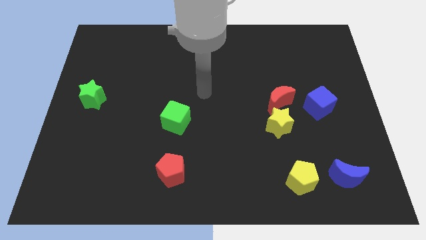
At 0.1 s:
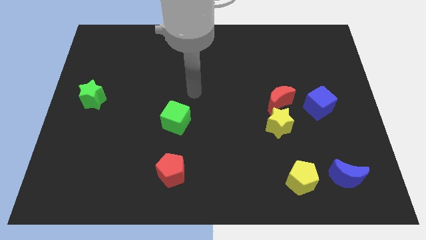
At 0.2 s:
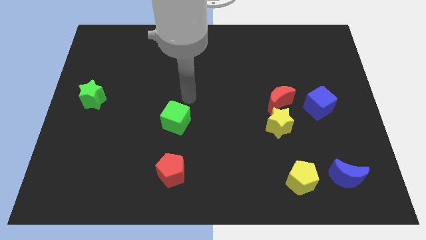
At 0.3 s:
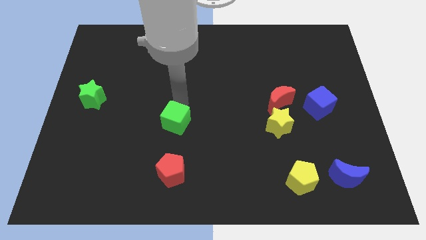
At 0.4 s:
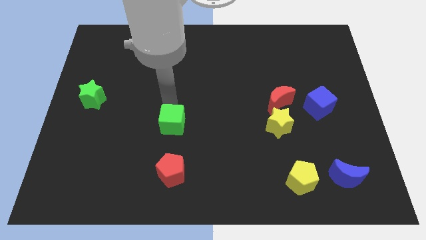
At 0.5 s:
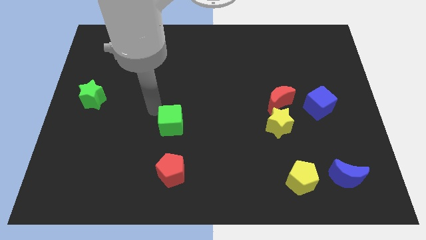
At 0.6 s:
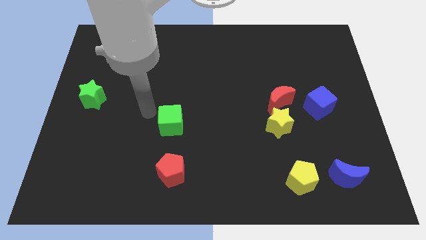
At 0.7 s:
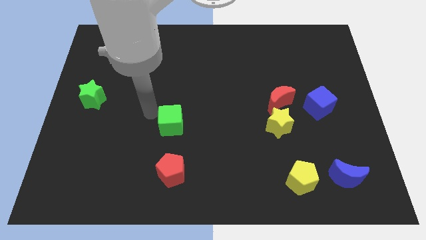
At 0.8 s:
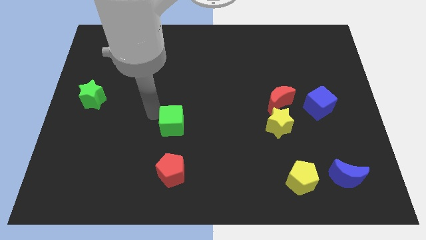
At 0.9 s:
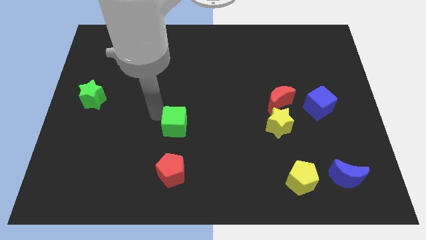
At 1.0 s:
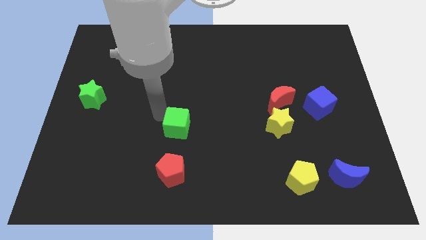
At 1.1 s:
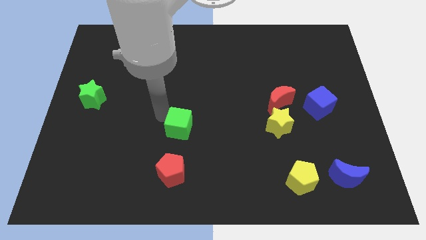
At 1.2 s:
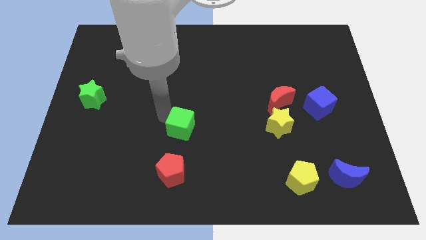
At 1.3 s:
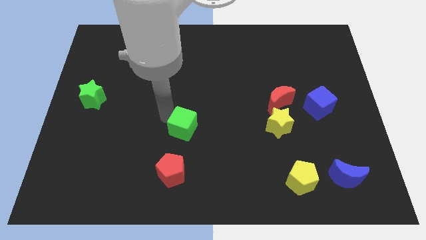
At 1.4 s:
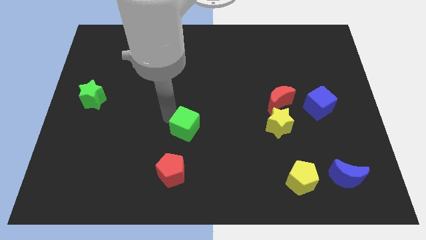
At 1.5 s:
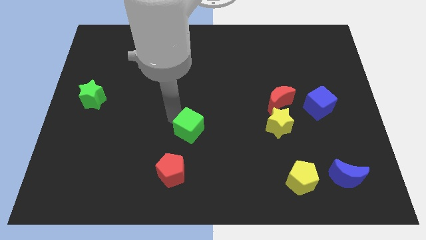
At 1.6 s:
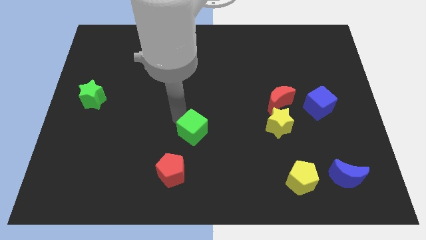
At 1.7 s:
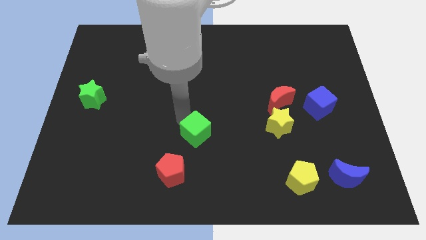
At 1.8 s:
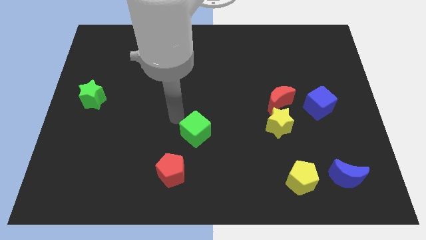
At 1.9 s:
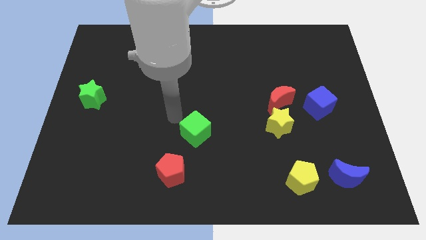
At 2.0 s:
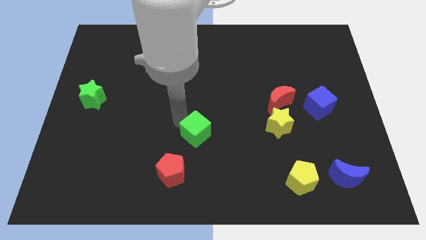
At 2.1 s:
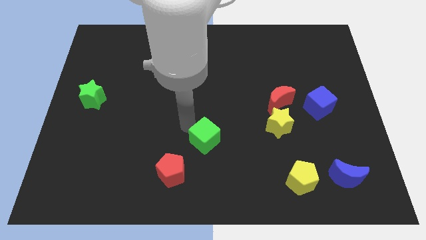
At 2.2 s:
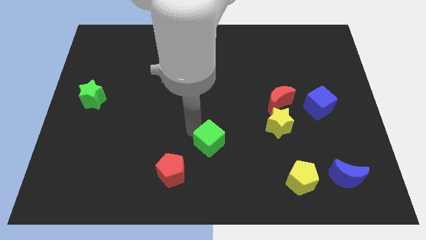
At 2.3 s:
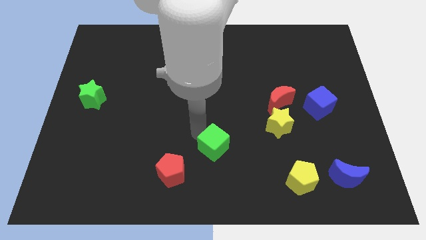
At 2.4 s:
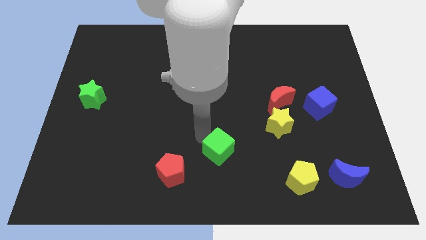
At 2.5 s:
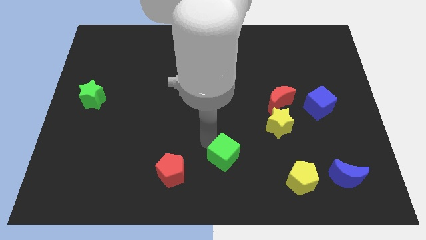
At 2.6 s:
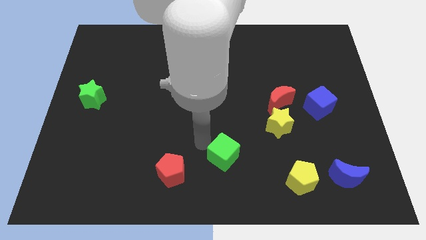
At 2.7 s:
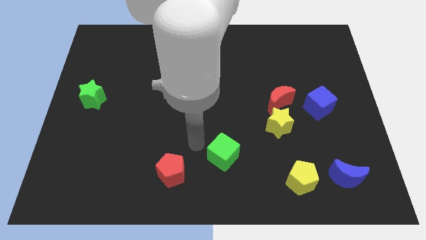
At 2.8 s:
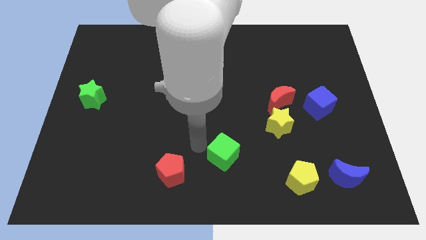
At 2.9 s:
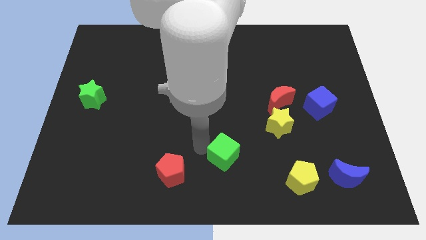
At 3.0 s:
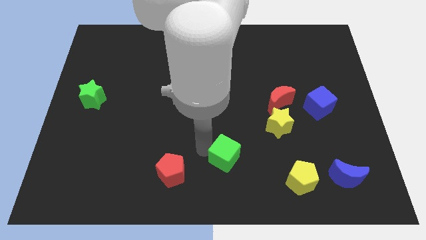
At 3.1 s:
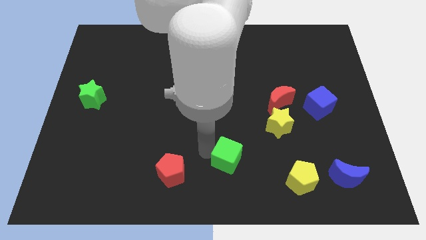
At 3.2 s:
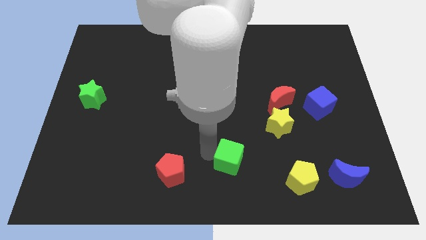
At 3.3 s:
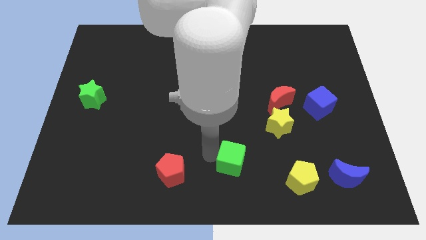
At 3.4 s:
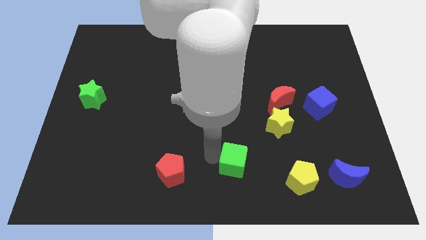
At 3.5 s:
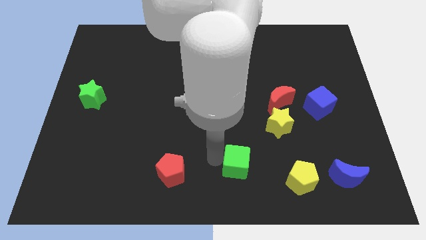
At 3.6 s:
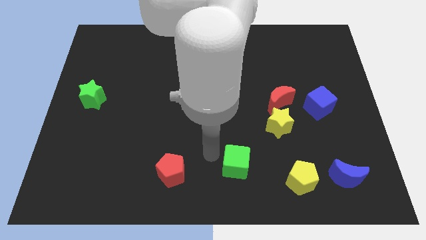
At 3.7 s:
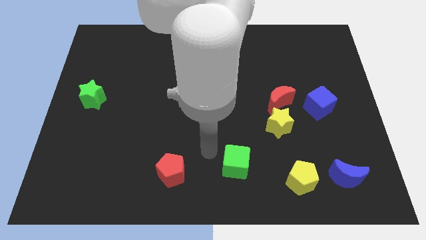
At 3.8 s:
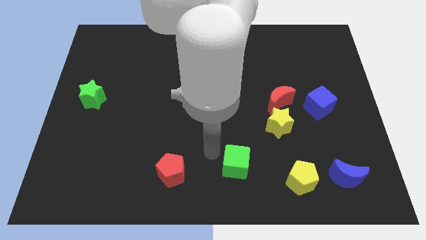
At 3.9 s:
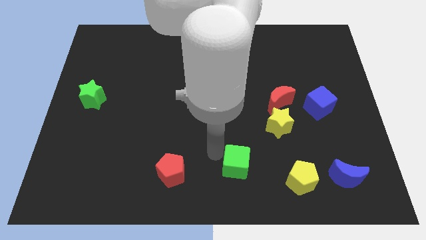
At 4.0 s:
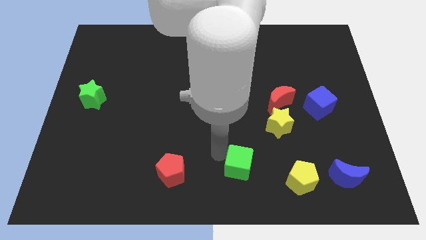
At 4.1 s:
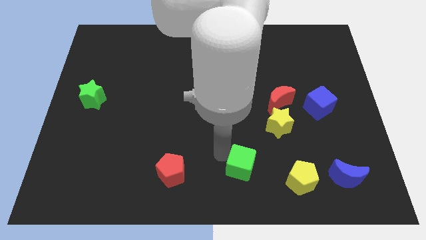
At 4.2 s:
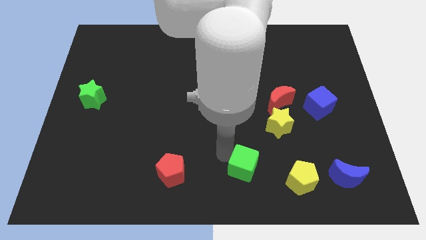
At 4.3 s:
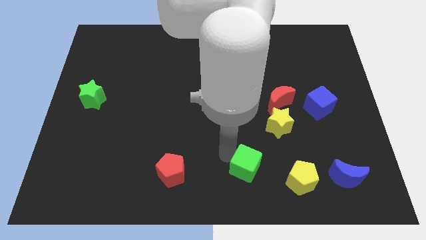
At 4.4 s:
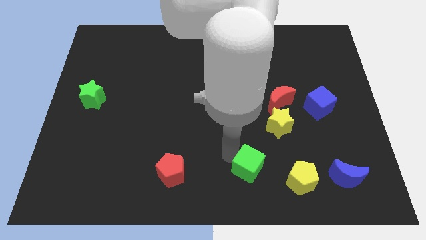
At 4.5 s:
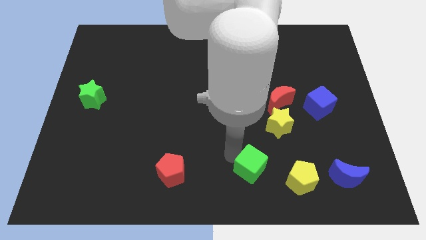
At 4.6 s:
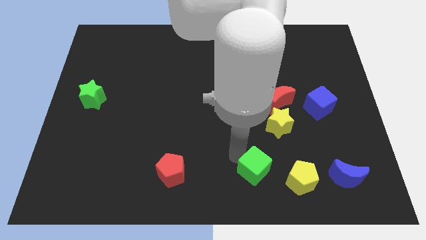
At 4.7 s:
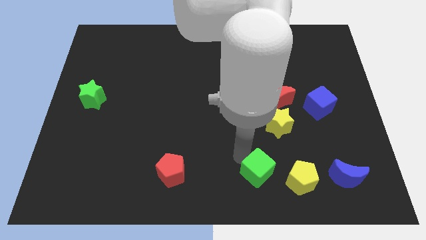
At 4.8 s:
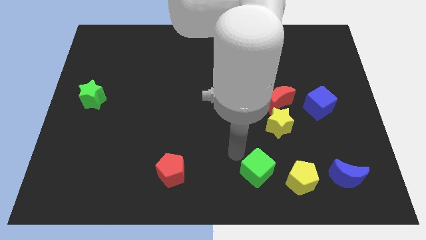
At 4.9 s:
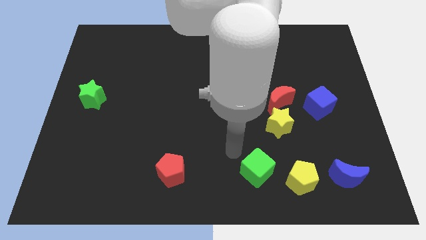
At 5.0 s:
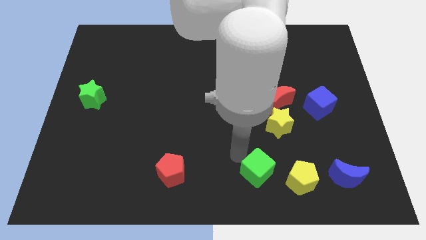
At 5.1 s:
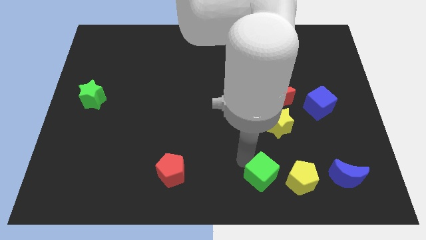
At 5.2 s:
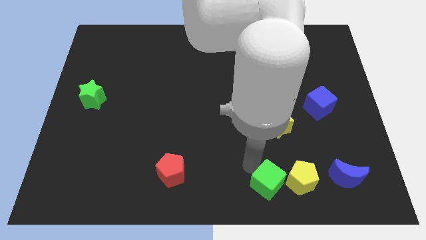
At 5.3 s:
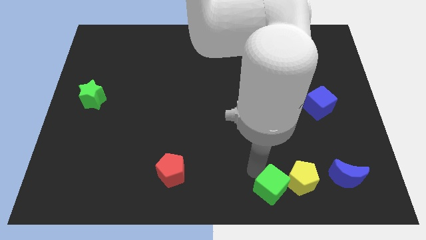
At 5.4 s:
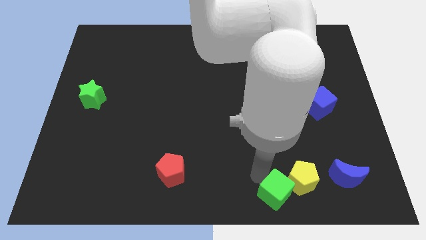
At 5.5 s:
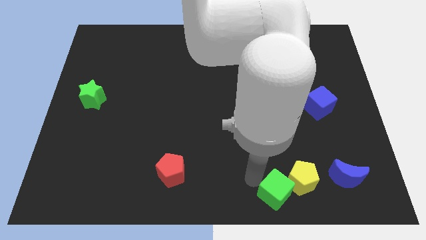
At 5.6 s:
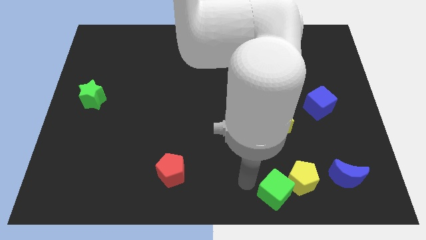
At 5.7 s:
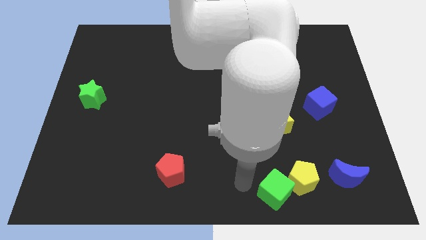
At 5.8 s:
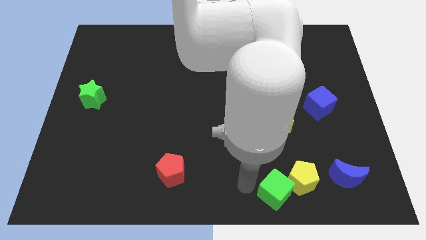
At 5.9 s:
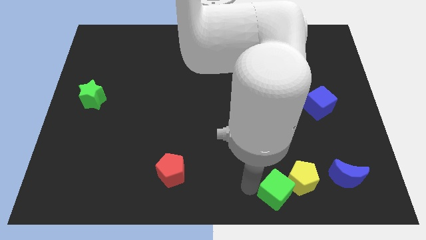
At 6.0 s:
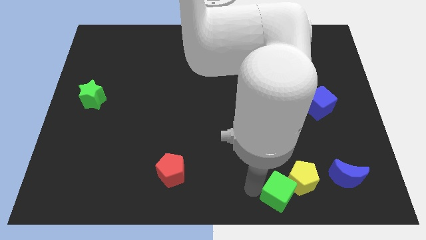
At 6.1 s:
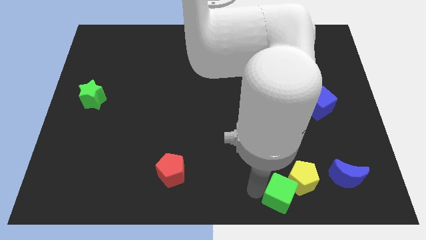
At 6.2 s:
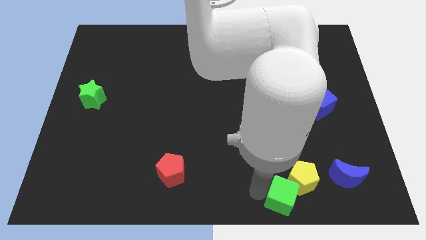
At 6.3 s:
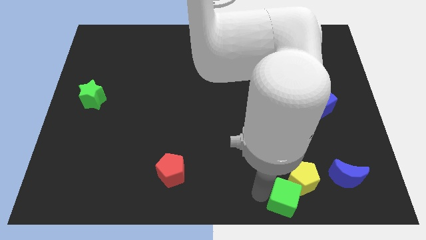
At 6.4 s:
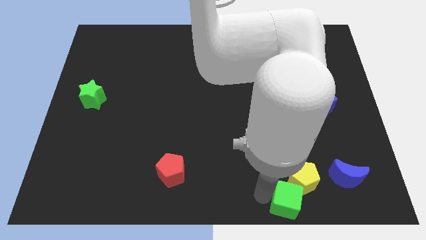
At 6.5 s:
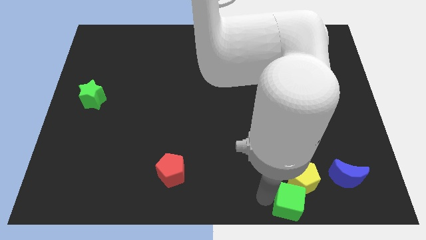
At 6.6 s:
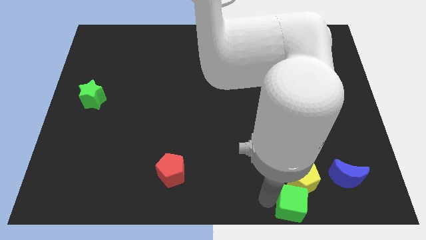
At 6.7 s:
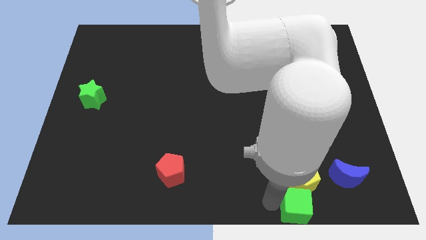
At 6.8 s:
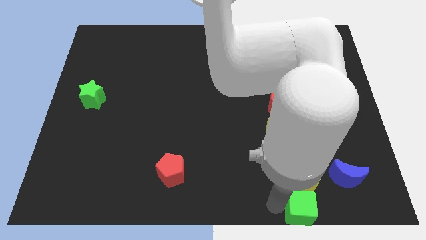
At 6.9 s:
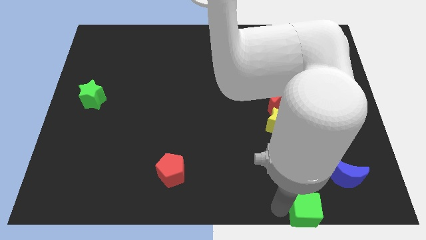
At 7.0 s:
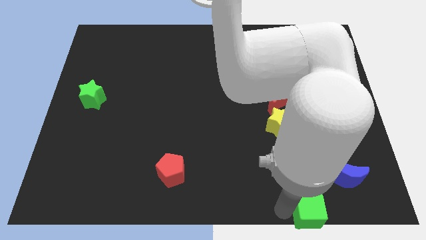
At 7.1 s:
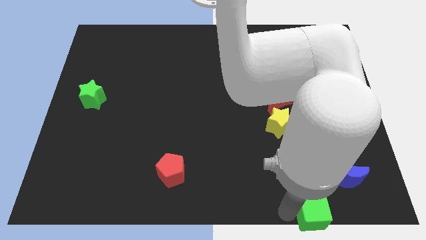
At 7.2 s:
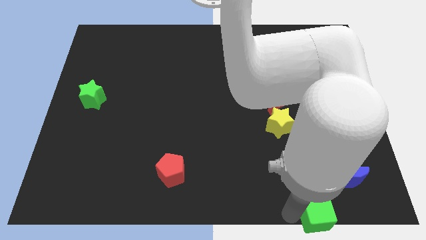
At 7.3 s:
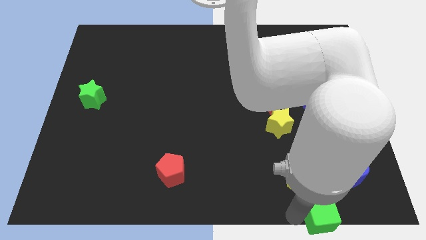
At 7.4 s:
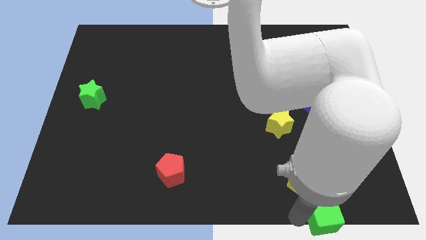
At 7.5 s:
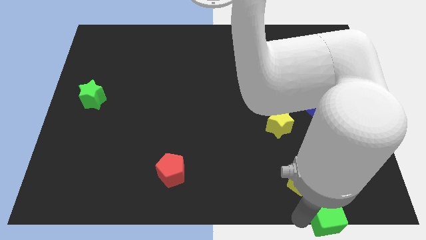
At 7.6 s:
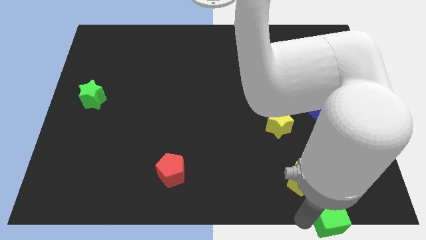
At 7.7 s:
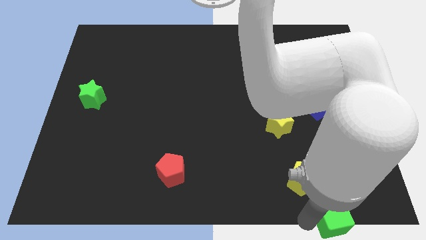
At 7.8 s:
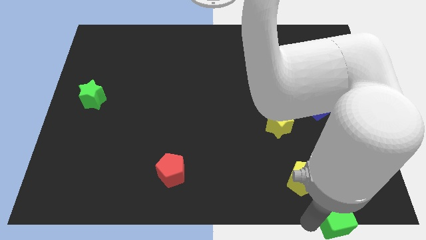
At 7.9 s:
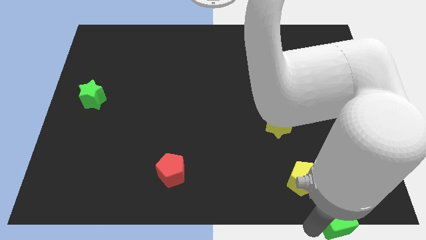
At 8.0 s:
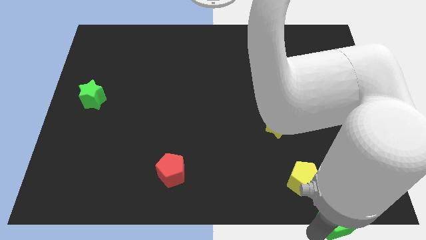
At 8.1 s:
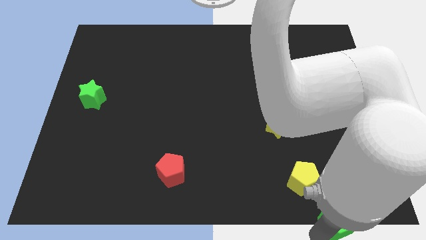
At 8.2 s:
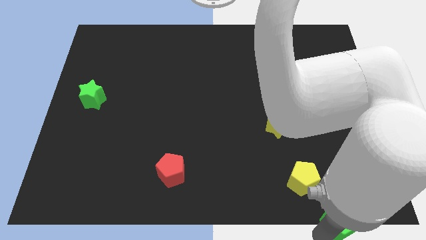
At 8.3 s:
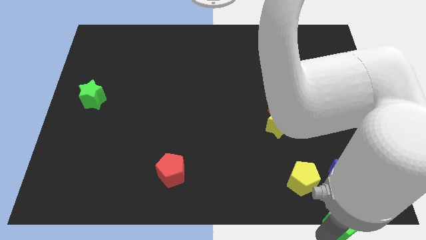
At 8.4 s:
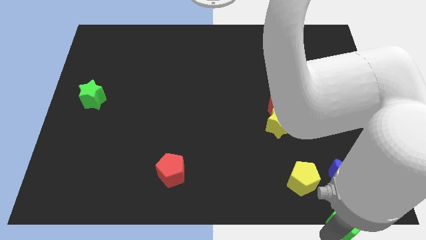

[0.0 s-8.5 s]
move the green cube to the bottom right corner
